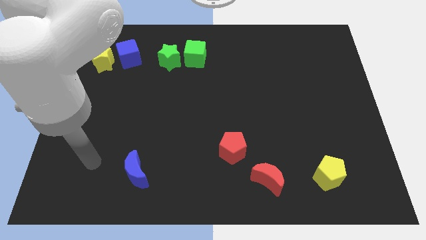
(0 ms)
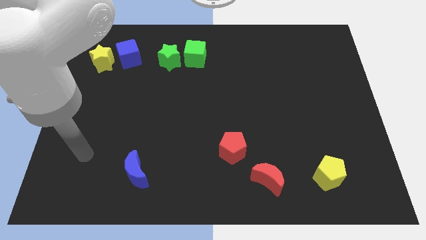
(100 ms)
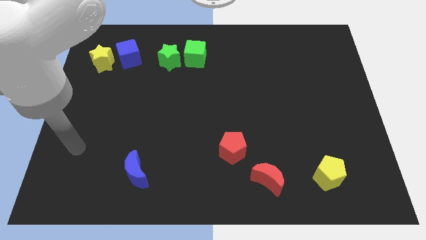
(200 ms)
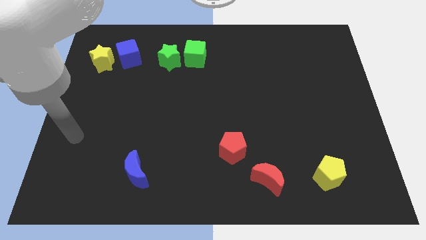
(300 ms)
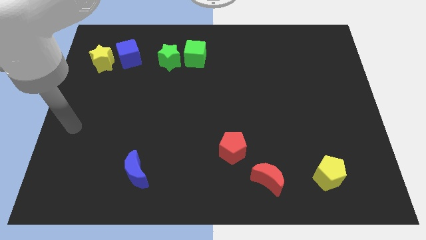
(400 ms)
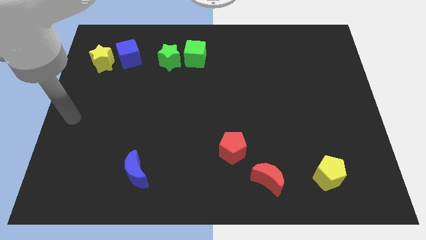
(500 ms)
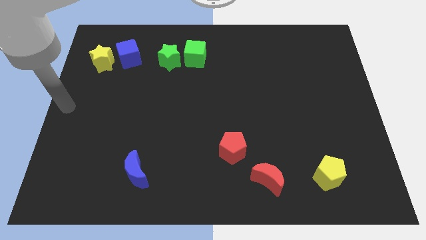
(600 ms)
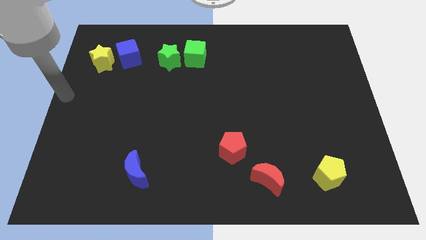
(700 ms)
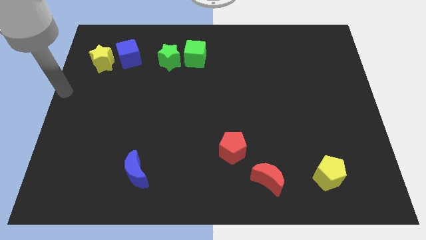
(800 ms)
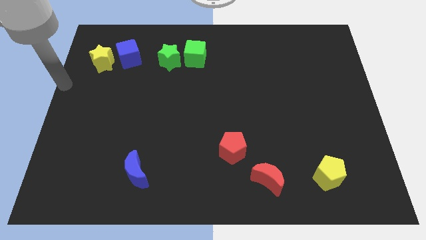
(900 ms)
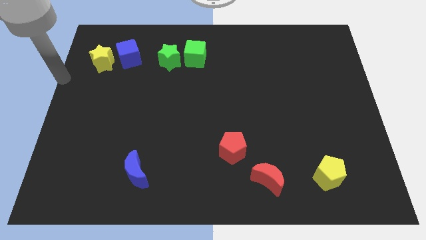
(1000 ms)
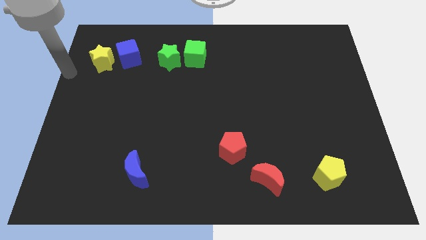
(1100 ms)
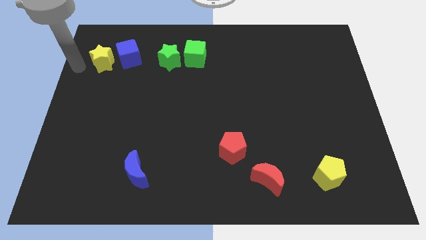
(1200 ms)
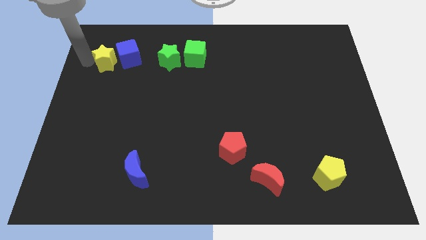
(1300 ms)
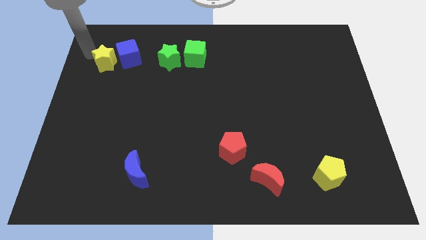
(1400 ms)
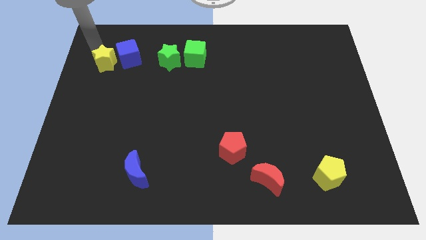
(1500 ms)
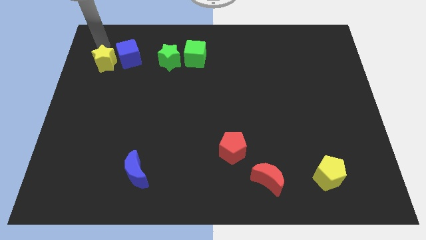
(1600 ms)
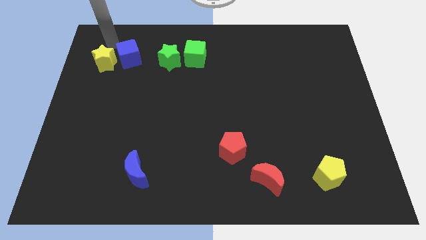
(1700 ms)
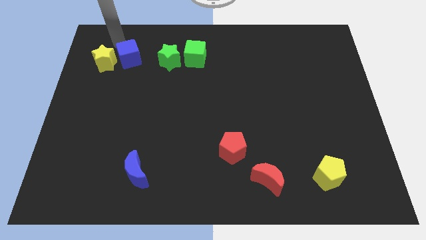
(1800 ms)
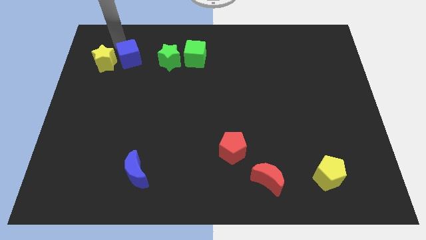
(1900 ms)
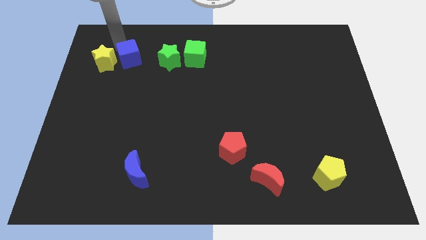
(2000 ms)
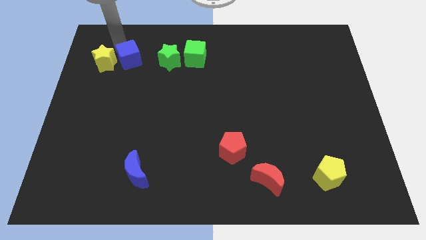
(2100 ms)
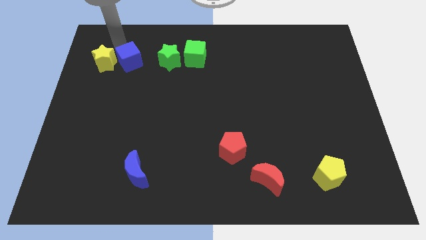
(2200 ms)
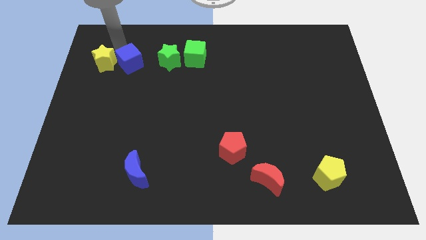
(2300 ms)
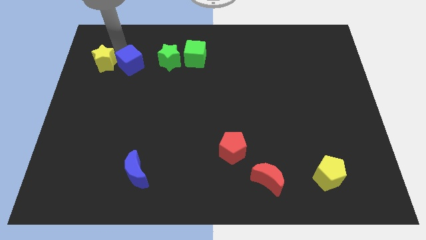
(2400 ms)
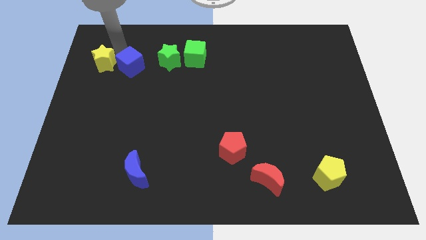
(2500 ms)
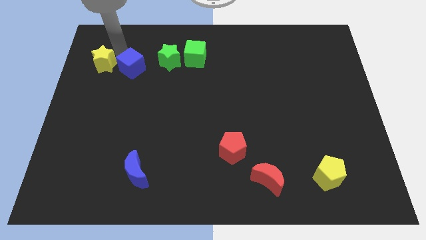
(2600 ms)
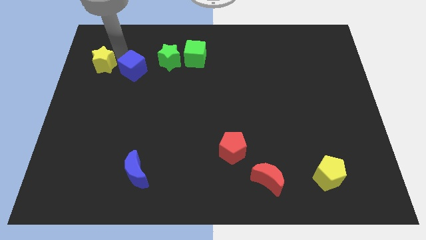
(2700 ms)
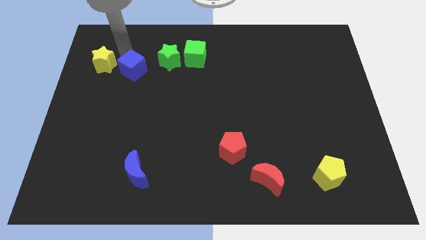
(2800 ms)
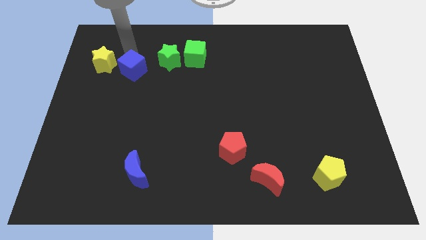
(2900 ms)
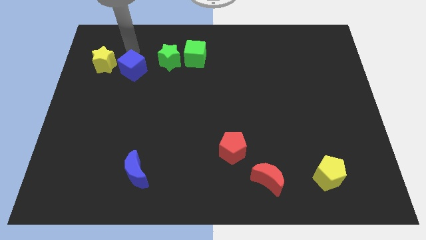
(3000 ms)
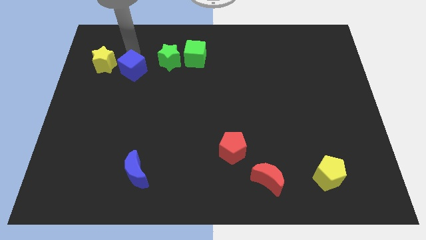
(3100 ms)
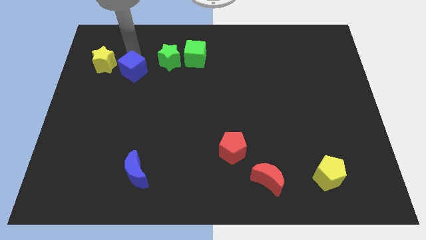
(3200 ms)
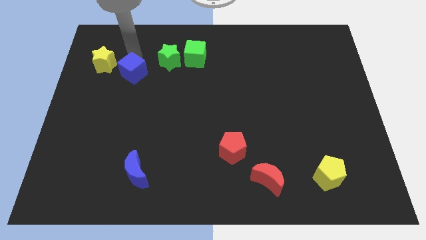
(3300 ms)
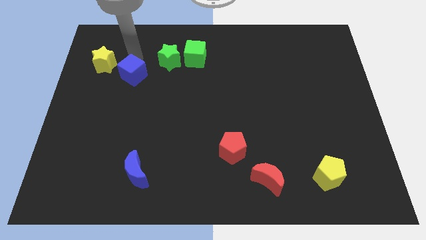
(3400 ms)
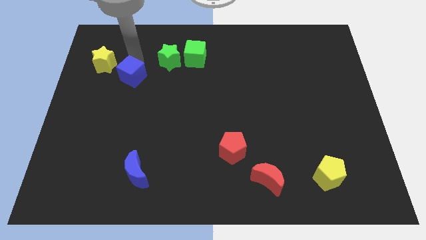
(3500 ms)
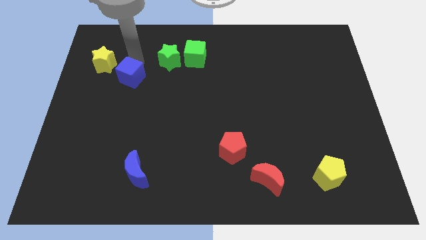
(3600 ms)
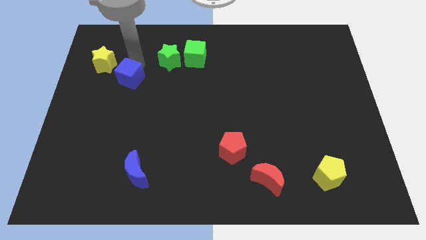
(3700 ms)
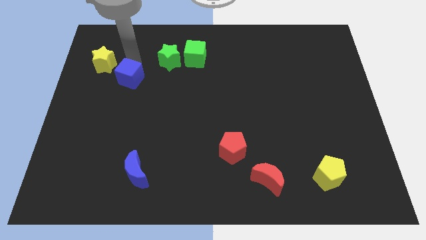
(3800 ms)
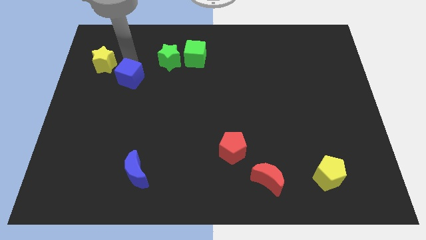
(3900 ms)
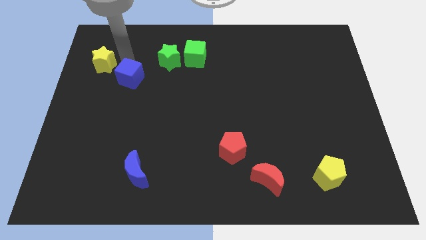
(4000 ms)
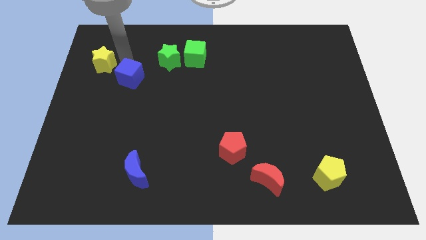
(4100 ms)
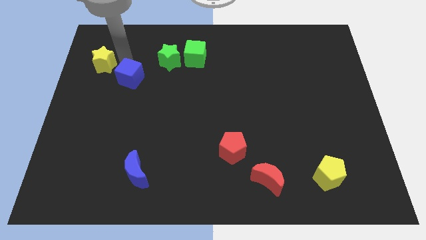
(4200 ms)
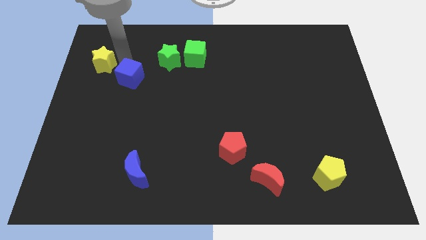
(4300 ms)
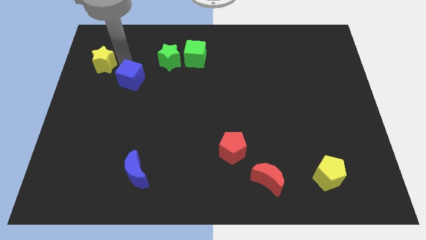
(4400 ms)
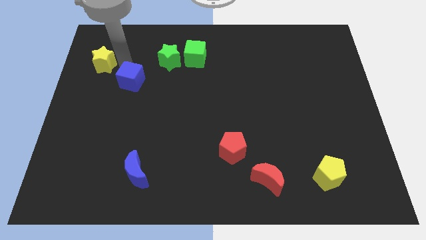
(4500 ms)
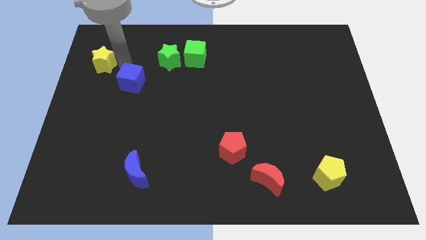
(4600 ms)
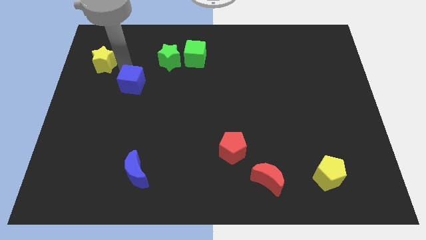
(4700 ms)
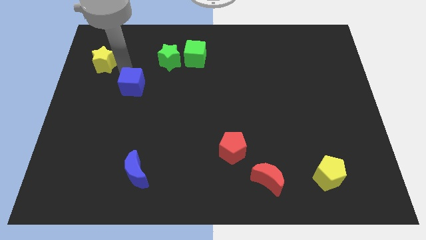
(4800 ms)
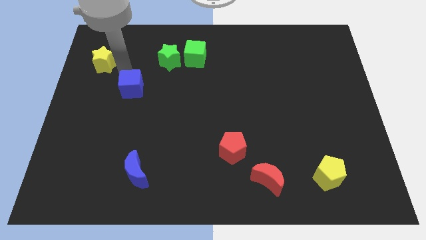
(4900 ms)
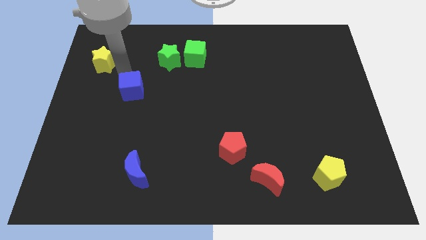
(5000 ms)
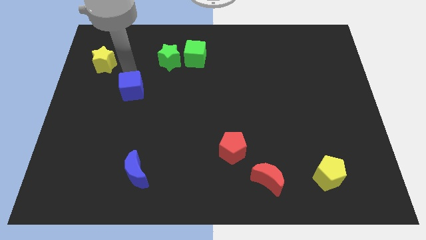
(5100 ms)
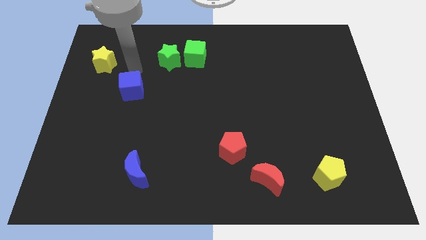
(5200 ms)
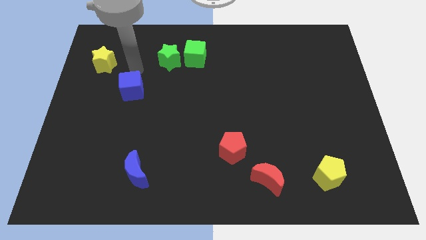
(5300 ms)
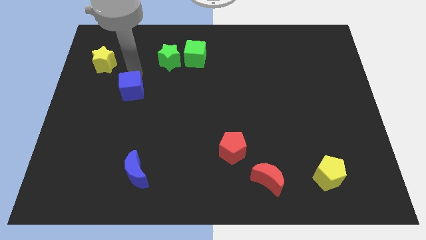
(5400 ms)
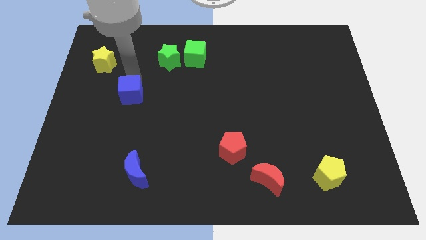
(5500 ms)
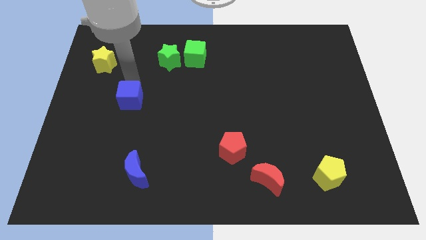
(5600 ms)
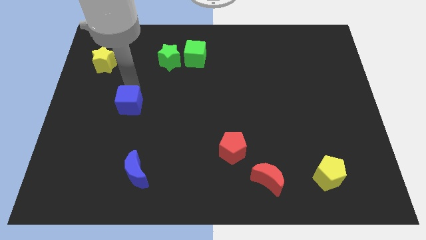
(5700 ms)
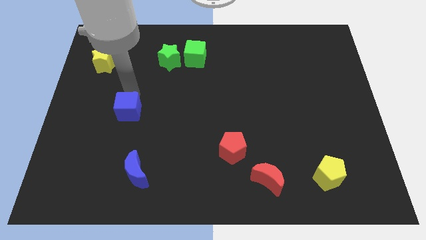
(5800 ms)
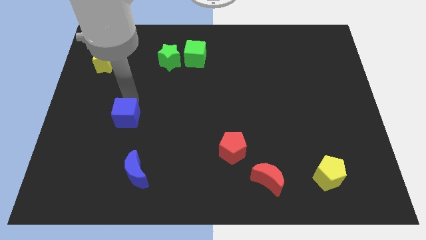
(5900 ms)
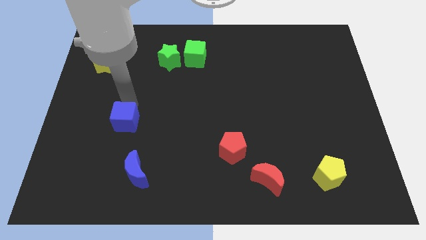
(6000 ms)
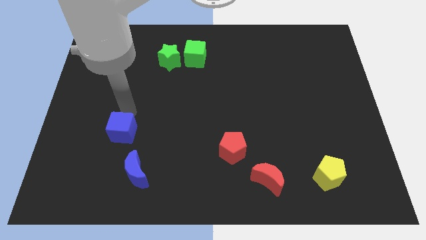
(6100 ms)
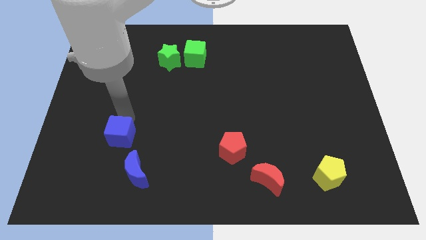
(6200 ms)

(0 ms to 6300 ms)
put the blue cube diagonally up and to the left of the blue moon

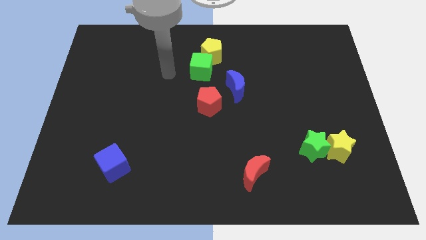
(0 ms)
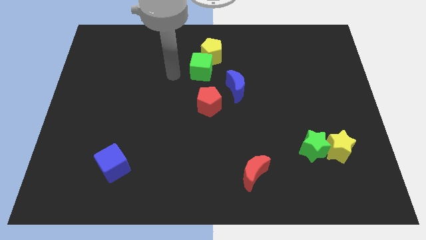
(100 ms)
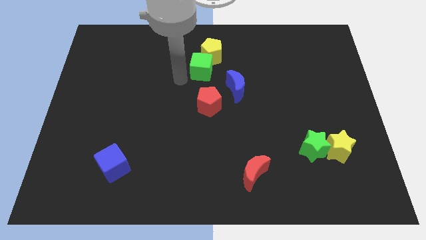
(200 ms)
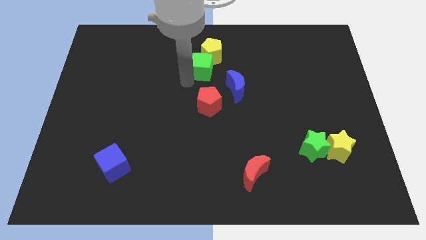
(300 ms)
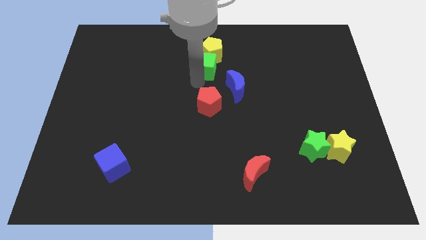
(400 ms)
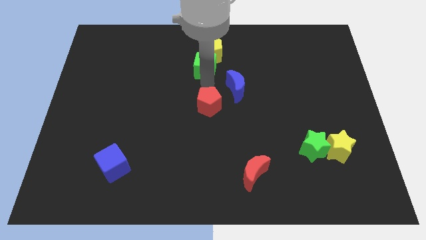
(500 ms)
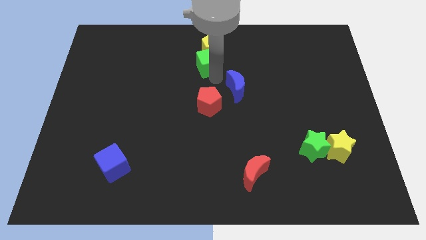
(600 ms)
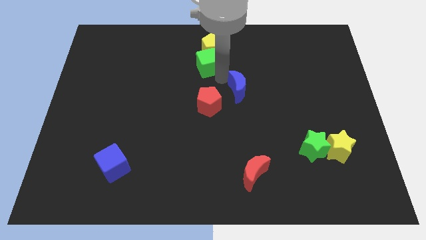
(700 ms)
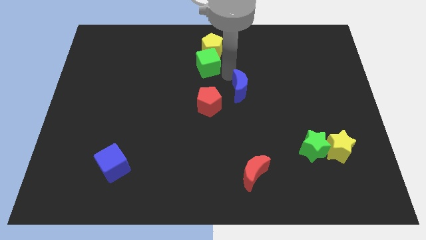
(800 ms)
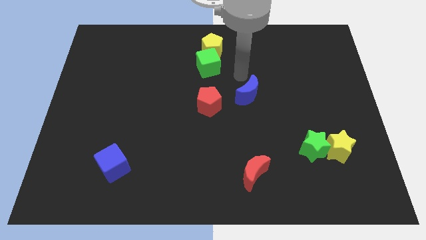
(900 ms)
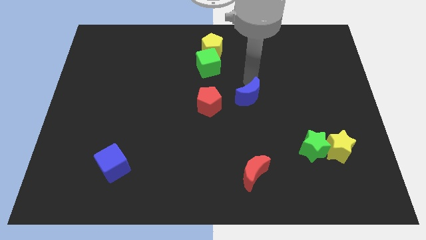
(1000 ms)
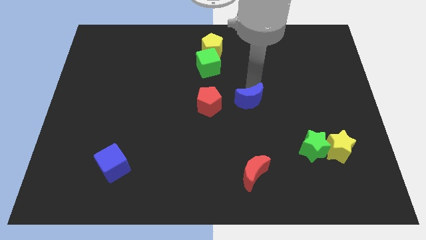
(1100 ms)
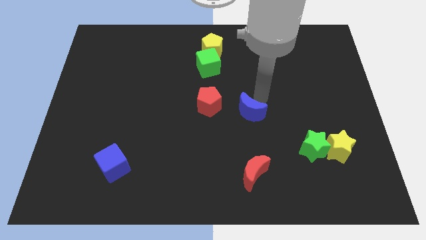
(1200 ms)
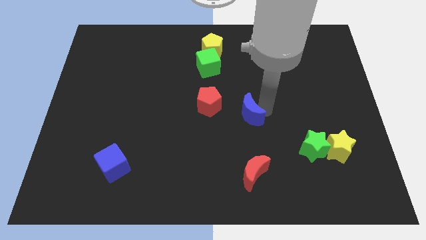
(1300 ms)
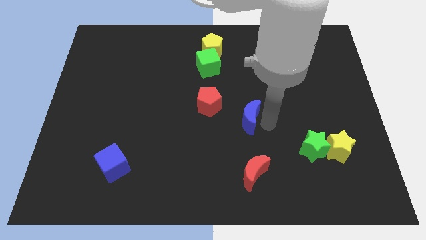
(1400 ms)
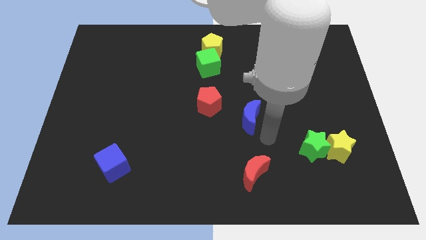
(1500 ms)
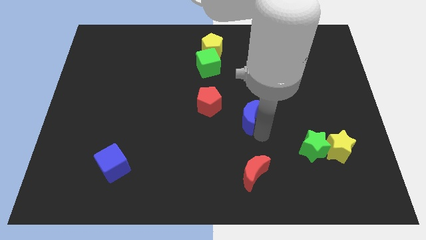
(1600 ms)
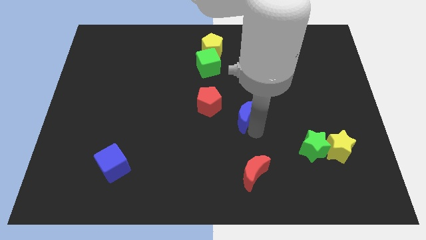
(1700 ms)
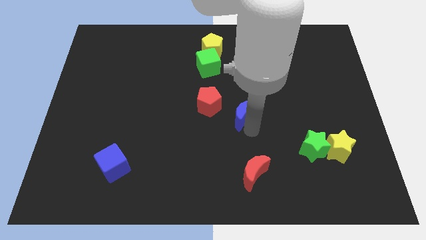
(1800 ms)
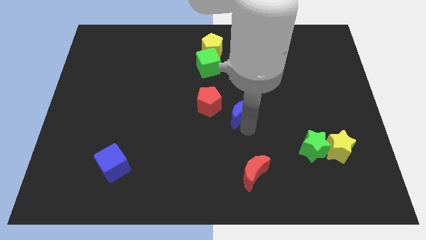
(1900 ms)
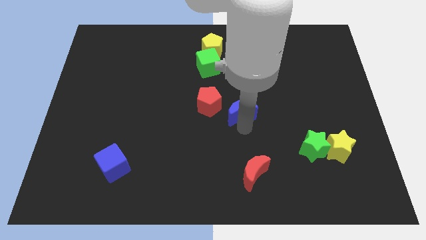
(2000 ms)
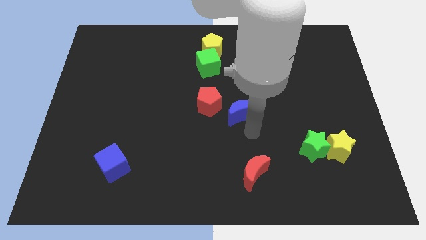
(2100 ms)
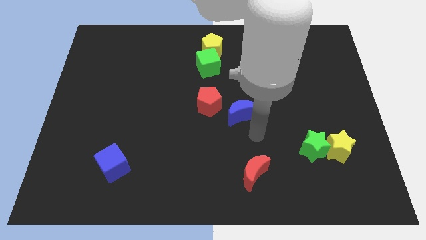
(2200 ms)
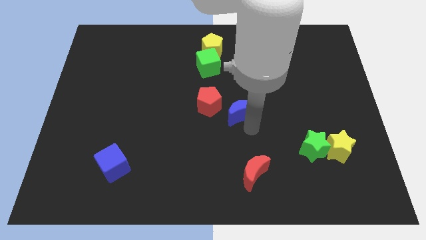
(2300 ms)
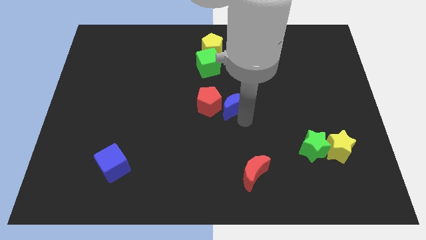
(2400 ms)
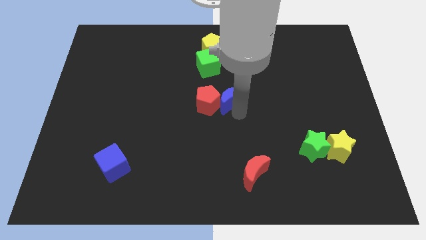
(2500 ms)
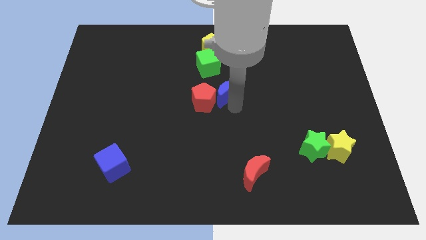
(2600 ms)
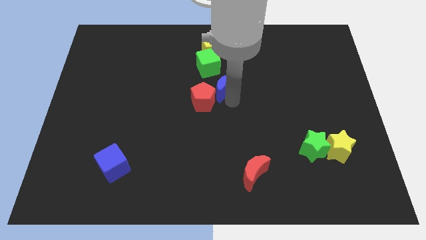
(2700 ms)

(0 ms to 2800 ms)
move the blue moon below the yellow pentagon
